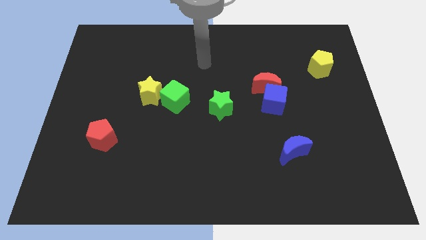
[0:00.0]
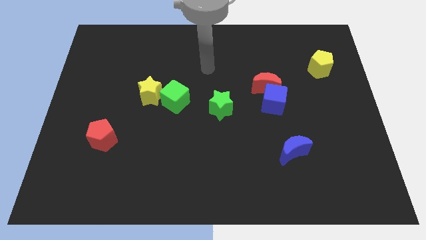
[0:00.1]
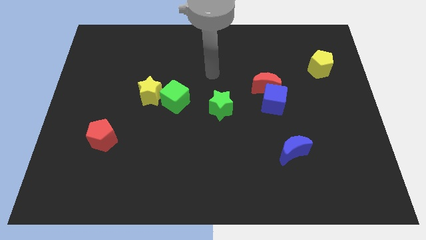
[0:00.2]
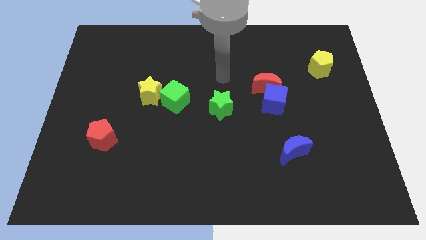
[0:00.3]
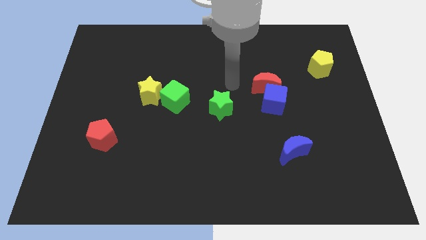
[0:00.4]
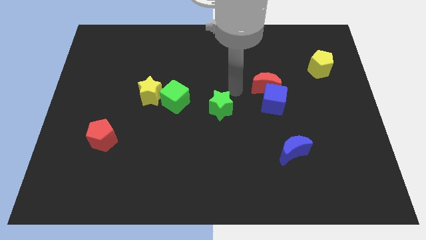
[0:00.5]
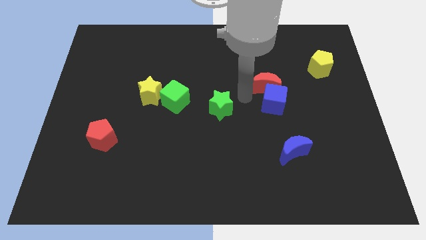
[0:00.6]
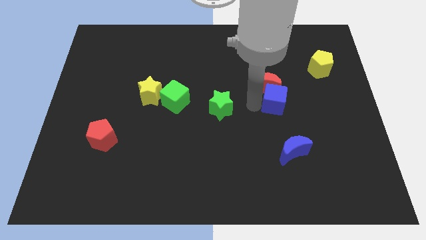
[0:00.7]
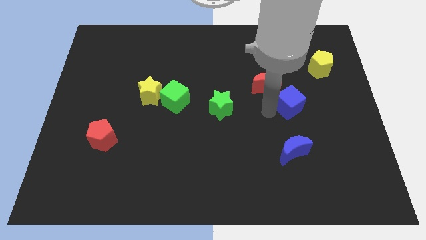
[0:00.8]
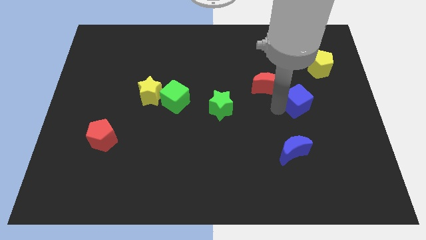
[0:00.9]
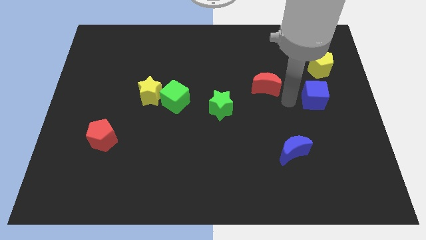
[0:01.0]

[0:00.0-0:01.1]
move the red moon away from the blue cube

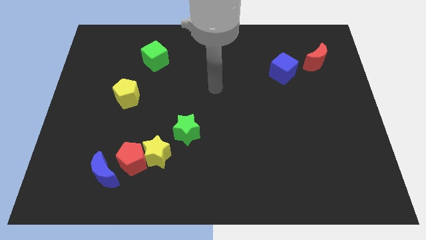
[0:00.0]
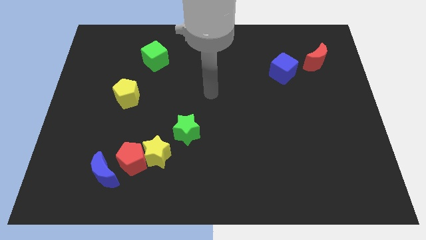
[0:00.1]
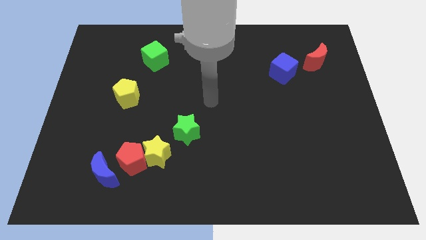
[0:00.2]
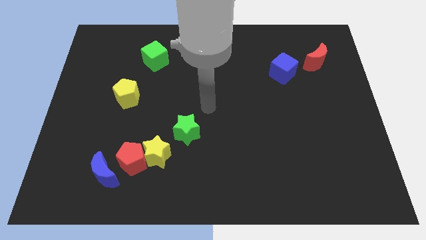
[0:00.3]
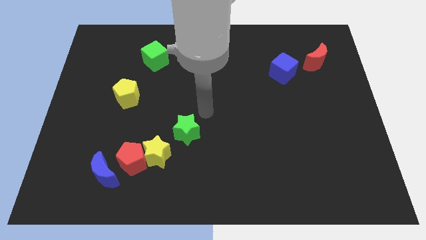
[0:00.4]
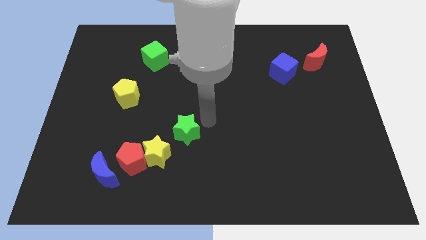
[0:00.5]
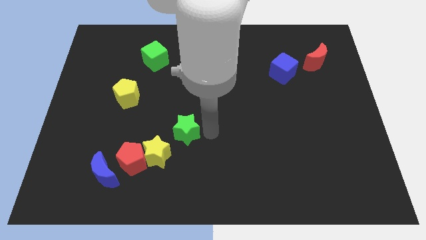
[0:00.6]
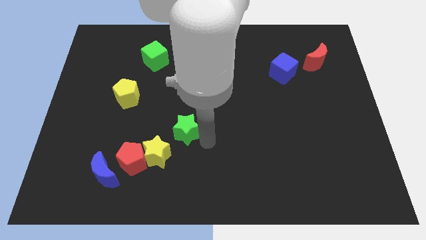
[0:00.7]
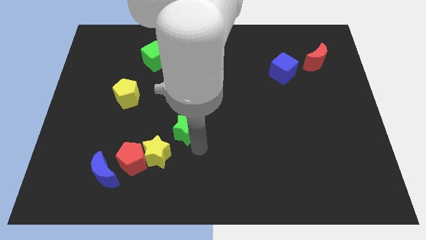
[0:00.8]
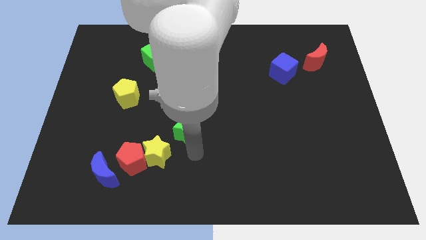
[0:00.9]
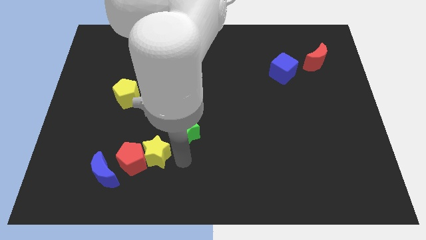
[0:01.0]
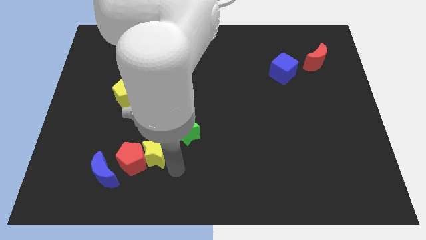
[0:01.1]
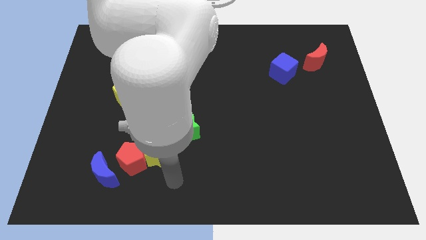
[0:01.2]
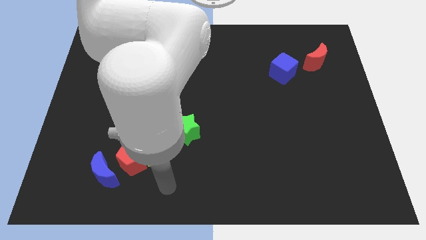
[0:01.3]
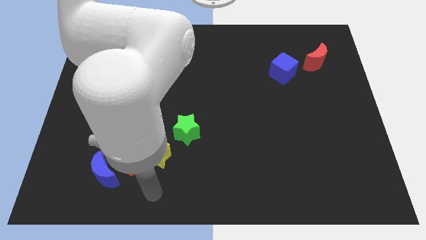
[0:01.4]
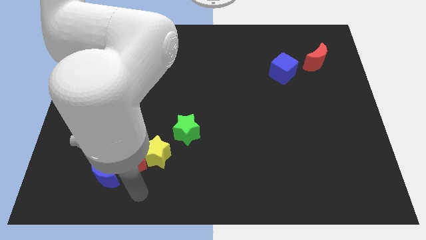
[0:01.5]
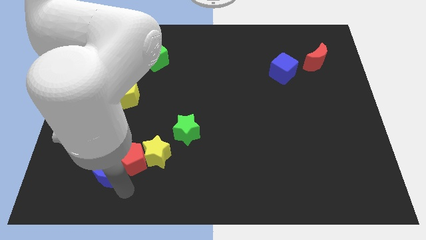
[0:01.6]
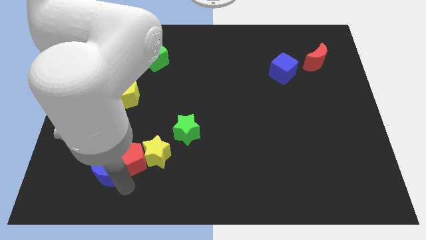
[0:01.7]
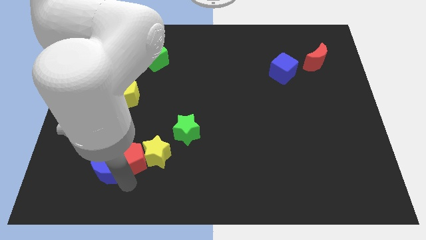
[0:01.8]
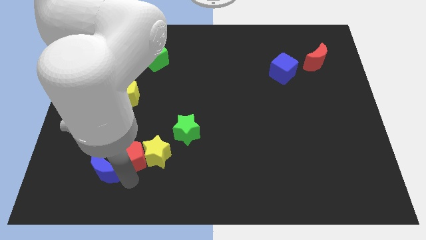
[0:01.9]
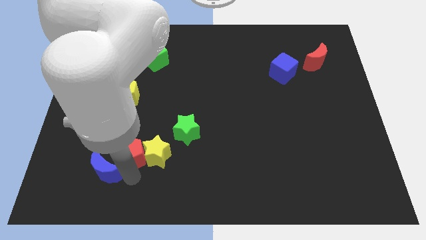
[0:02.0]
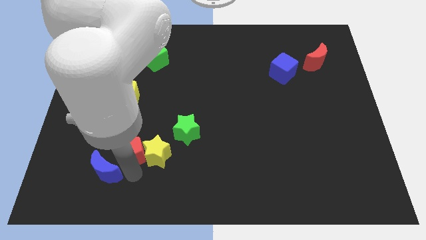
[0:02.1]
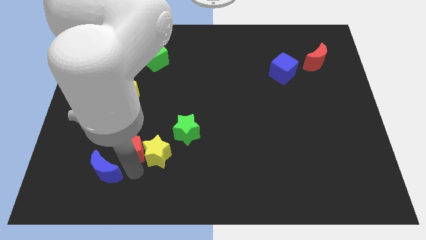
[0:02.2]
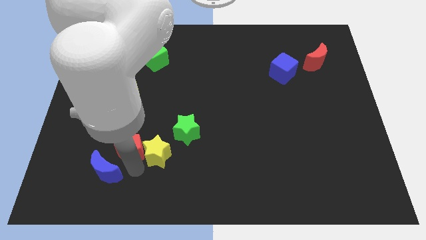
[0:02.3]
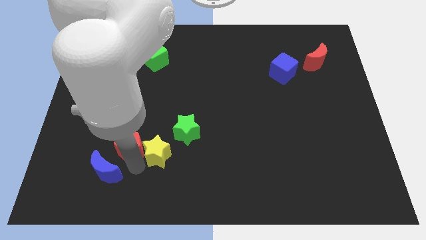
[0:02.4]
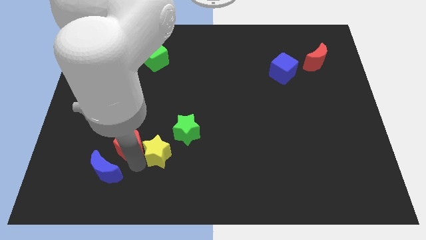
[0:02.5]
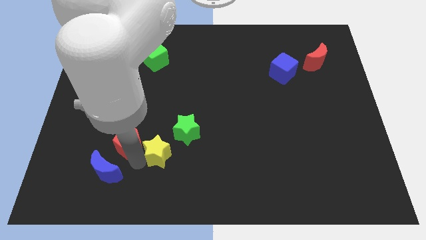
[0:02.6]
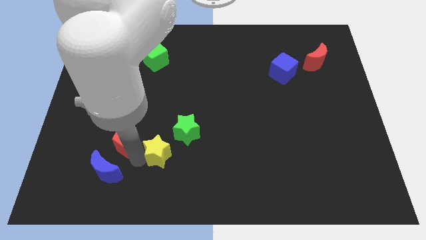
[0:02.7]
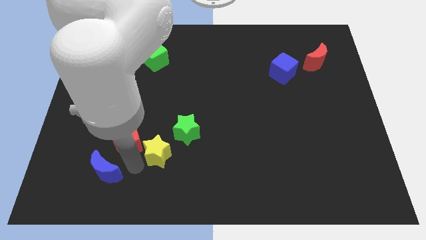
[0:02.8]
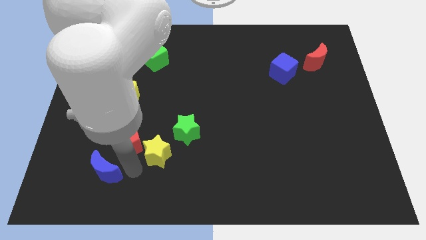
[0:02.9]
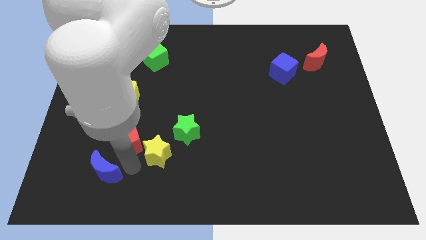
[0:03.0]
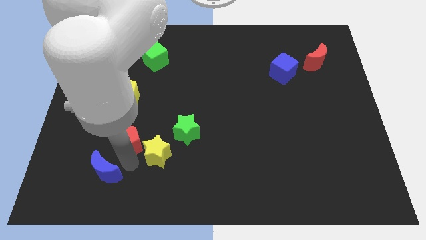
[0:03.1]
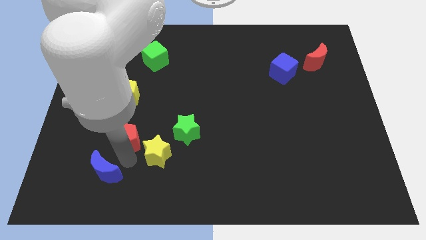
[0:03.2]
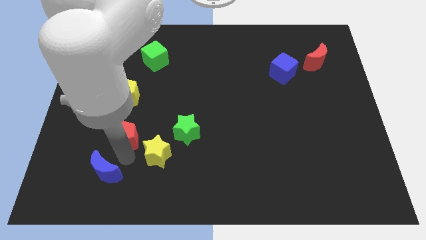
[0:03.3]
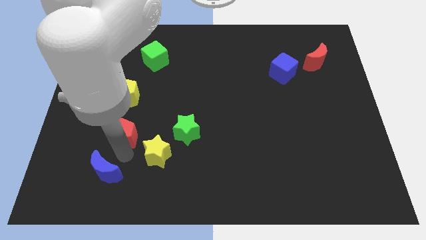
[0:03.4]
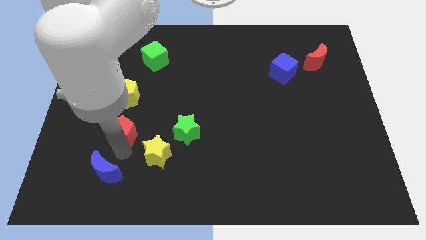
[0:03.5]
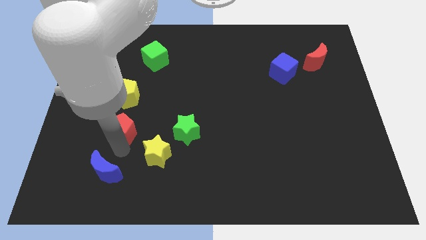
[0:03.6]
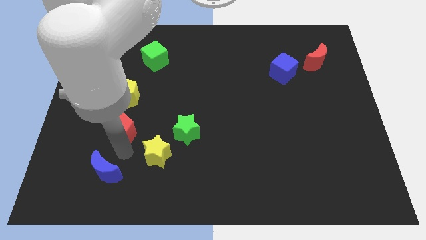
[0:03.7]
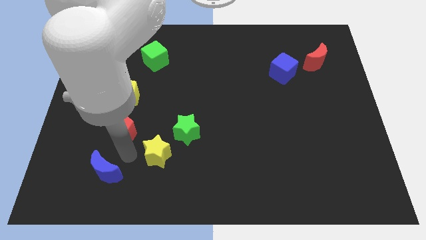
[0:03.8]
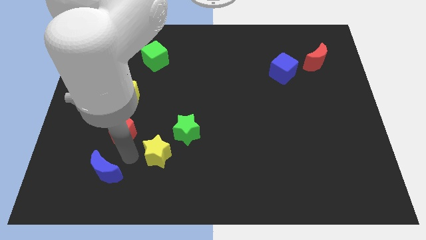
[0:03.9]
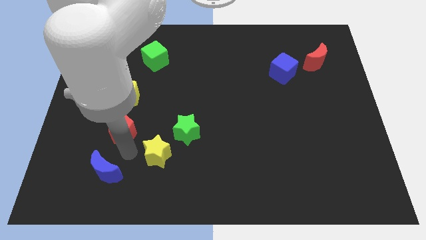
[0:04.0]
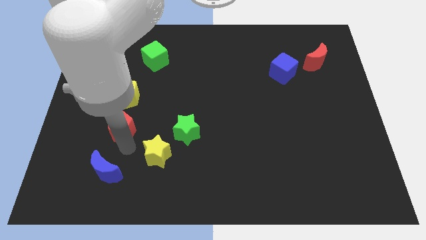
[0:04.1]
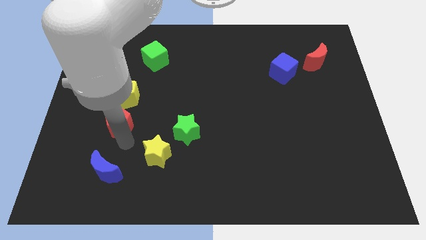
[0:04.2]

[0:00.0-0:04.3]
move the red pentagon away from the yellow star and blue moon

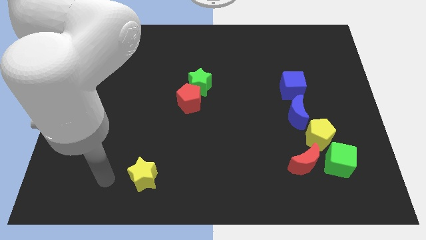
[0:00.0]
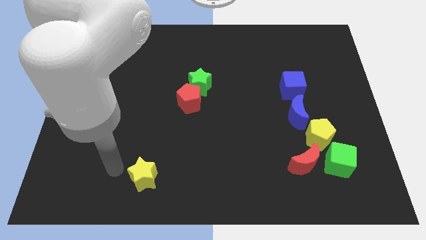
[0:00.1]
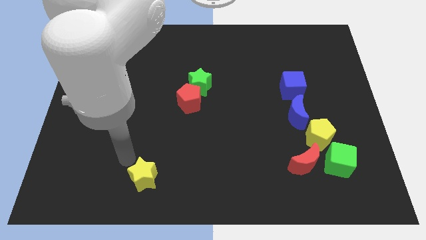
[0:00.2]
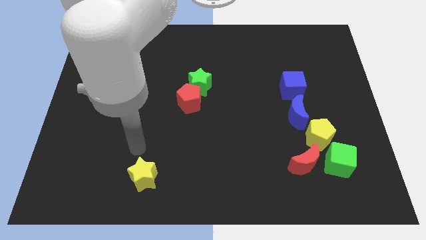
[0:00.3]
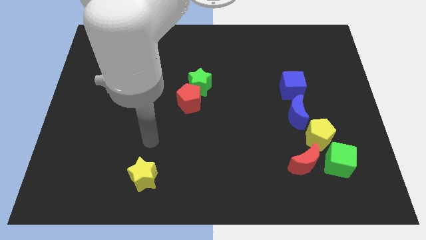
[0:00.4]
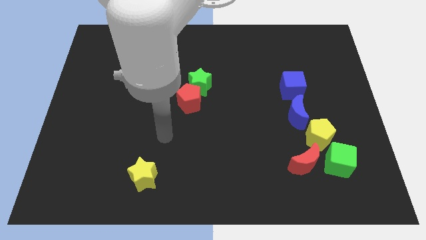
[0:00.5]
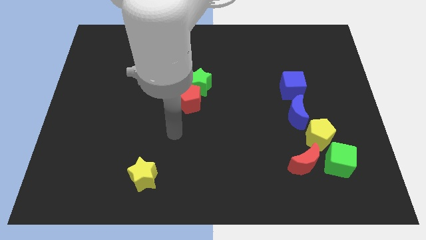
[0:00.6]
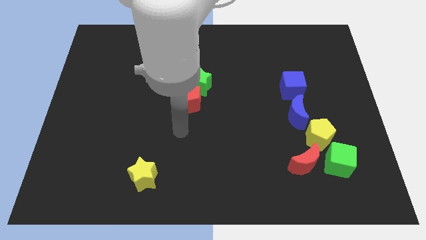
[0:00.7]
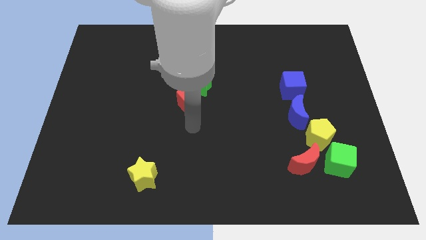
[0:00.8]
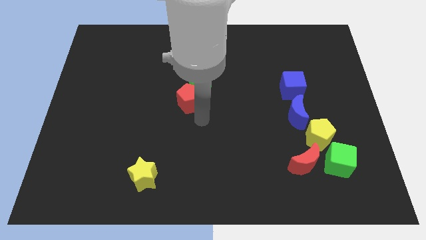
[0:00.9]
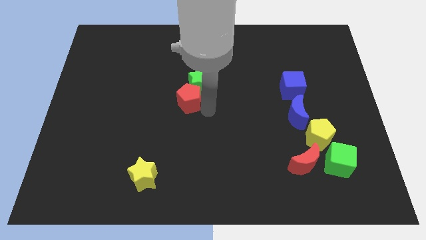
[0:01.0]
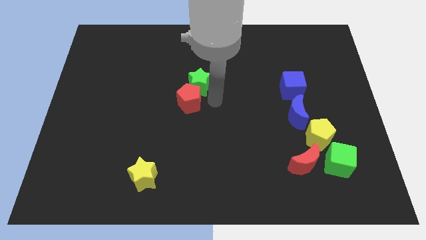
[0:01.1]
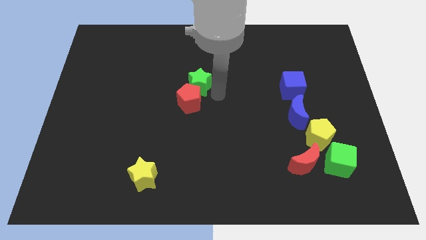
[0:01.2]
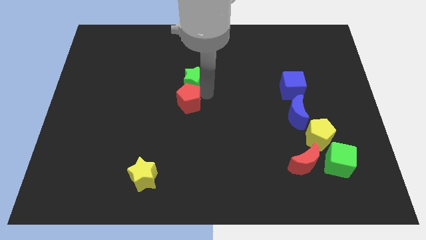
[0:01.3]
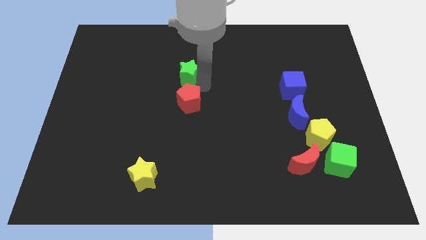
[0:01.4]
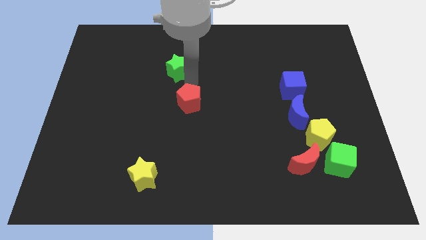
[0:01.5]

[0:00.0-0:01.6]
separate the red pentagon from the green star

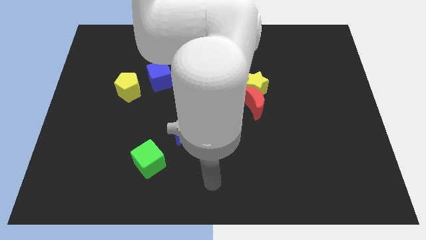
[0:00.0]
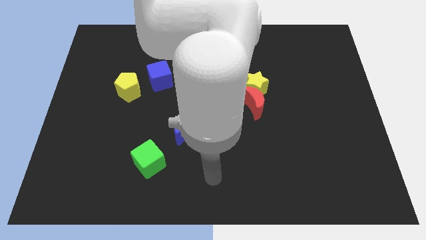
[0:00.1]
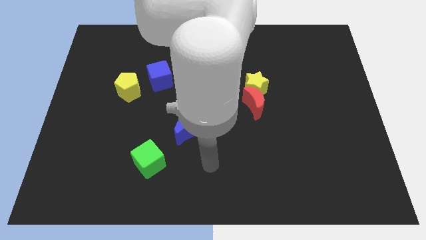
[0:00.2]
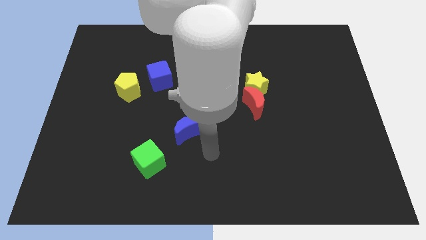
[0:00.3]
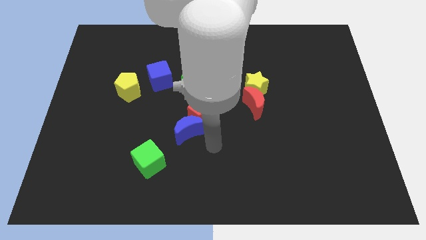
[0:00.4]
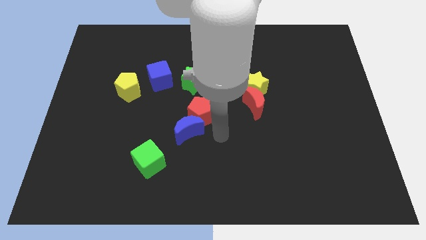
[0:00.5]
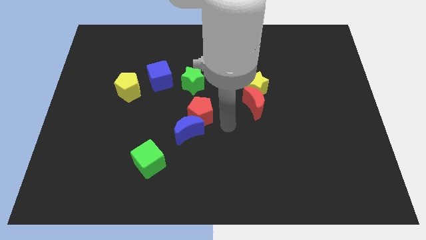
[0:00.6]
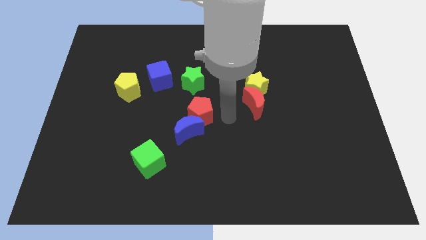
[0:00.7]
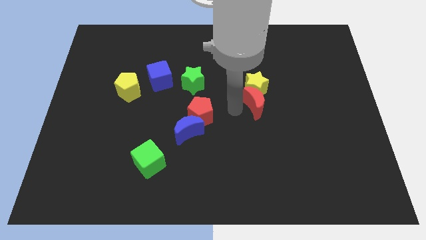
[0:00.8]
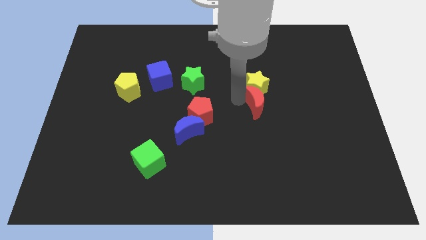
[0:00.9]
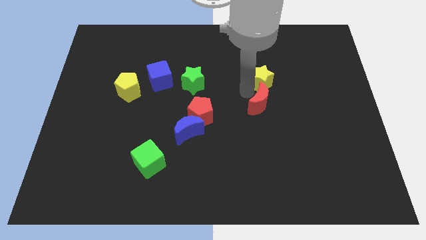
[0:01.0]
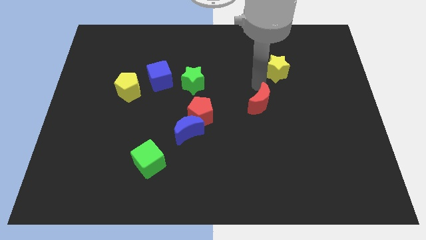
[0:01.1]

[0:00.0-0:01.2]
move the red moon away from the yellow star

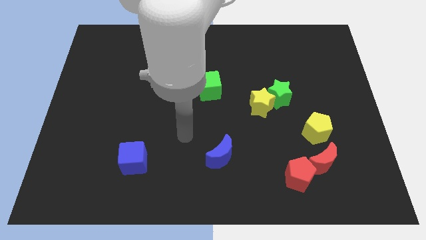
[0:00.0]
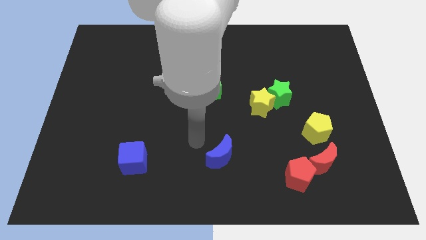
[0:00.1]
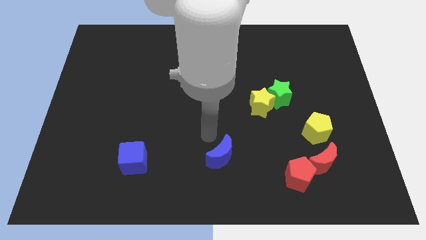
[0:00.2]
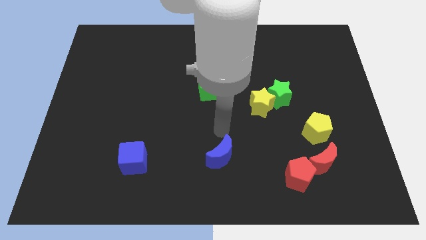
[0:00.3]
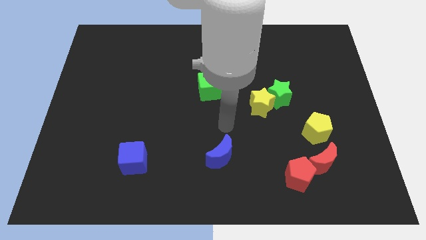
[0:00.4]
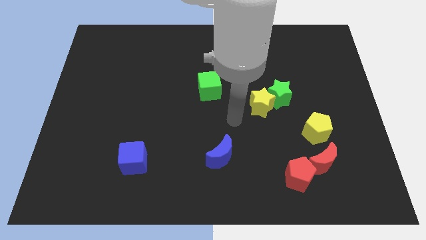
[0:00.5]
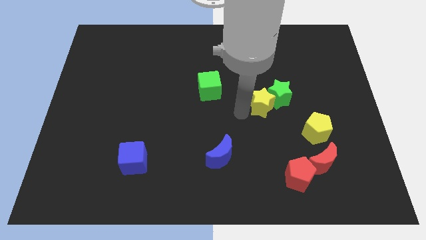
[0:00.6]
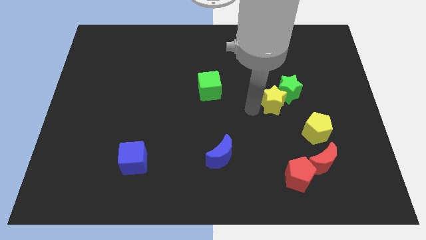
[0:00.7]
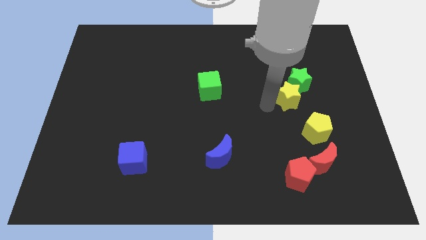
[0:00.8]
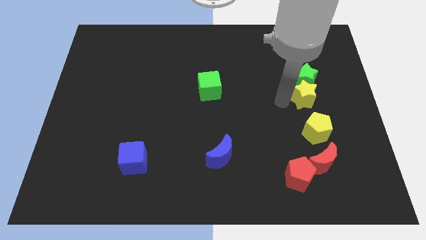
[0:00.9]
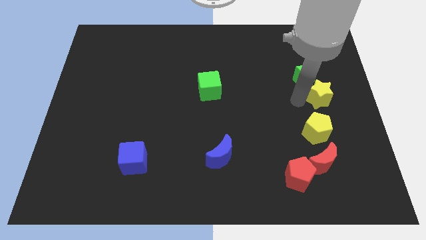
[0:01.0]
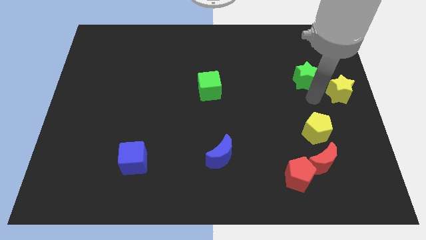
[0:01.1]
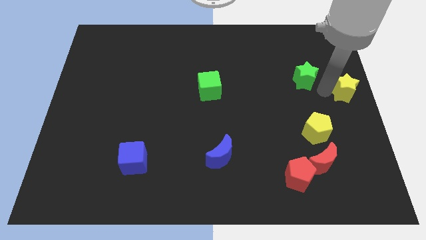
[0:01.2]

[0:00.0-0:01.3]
move the green star away from the yellow star
